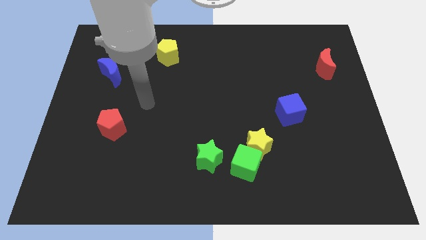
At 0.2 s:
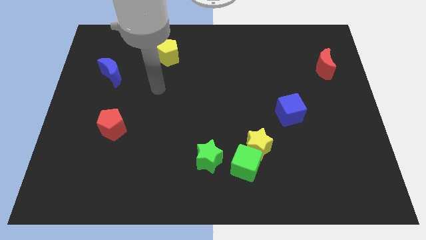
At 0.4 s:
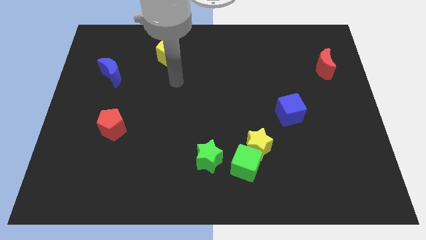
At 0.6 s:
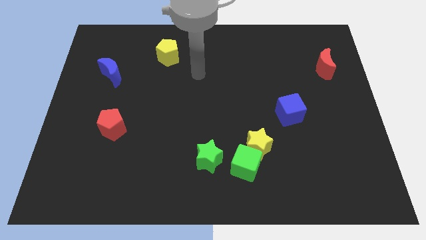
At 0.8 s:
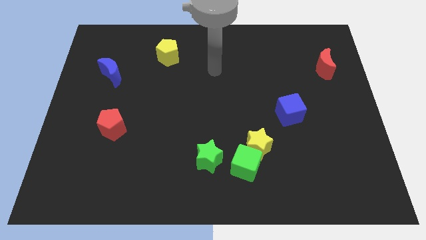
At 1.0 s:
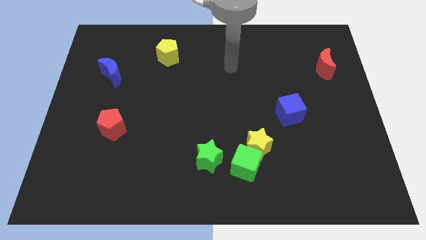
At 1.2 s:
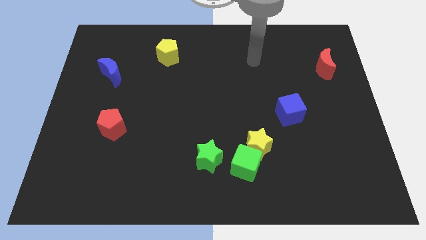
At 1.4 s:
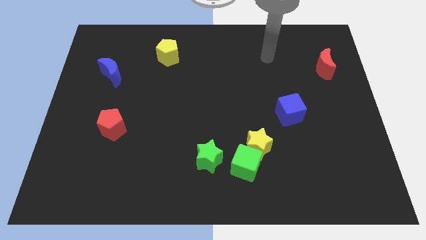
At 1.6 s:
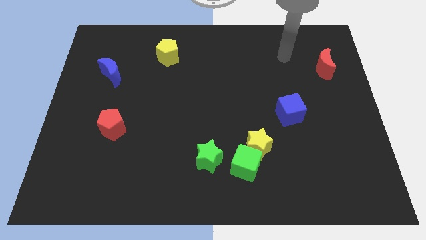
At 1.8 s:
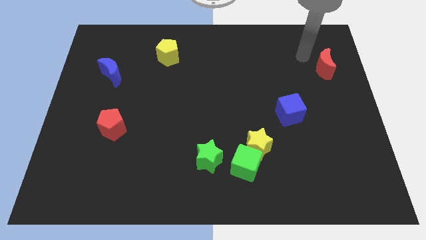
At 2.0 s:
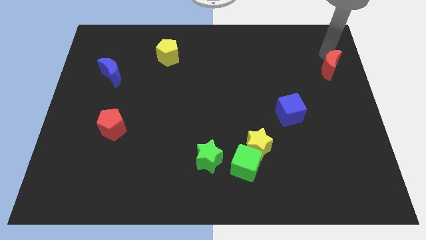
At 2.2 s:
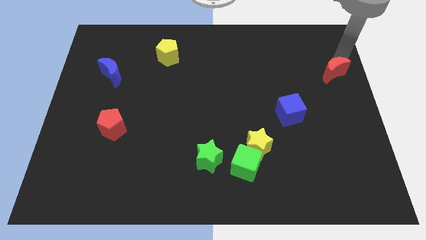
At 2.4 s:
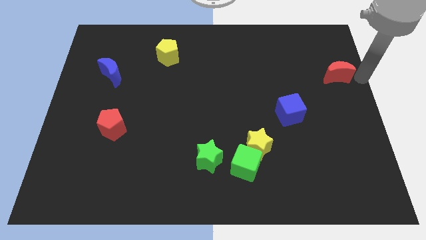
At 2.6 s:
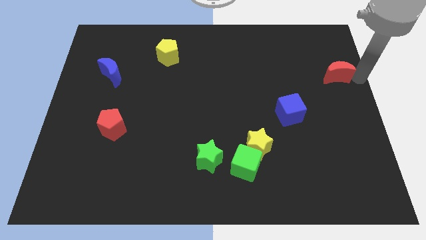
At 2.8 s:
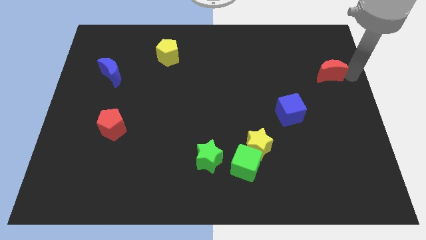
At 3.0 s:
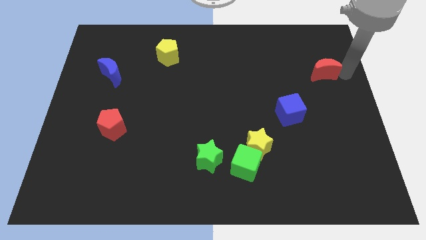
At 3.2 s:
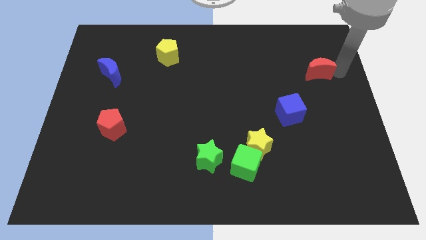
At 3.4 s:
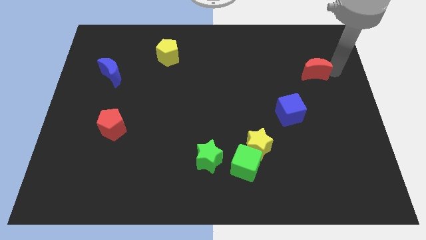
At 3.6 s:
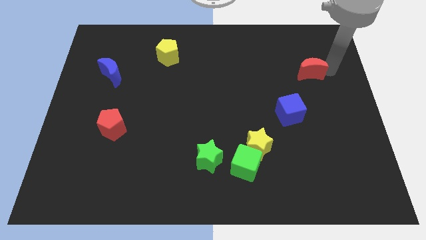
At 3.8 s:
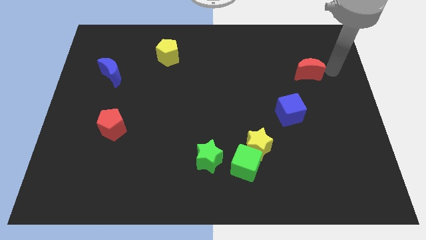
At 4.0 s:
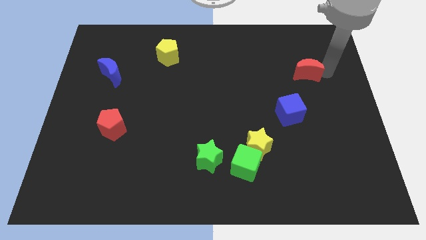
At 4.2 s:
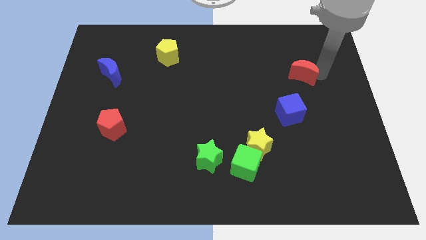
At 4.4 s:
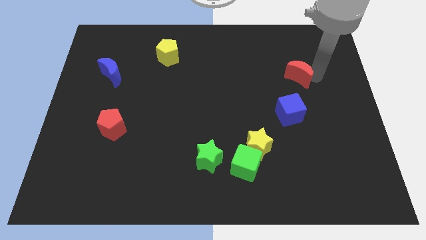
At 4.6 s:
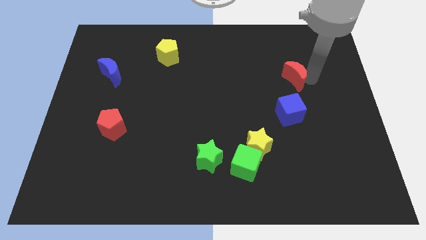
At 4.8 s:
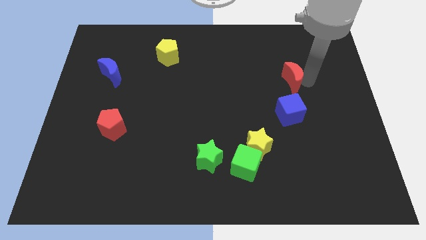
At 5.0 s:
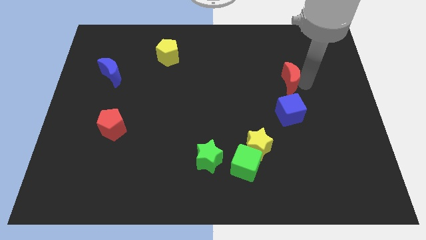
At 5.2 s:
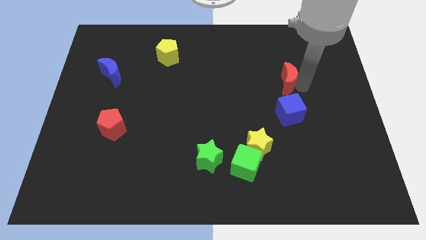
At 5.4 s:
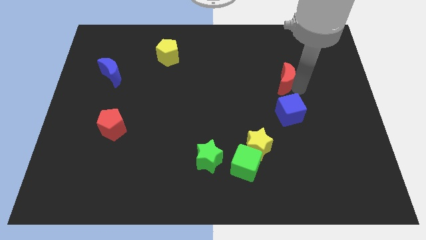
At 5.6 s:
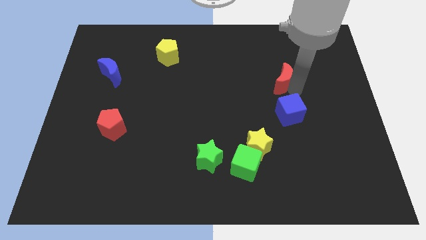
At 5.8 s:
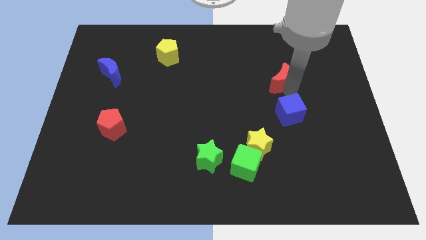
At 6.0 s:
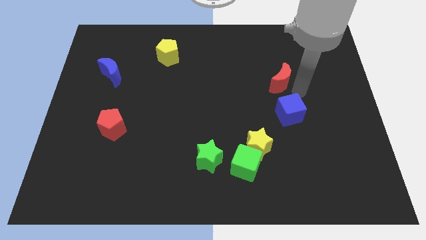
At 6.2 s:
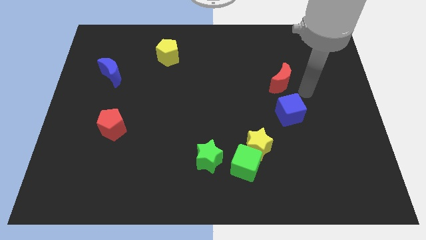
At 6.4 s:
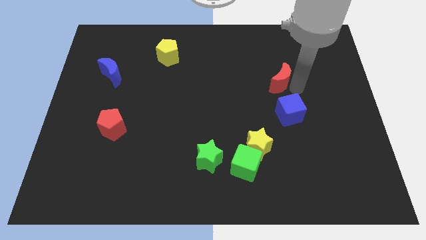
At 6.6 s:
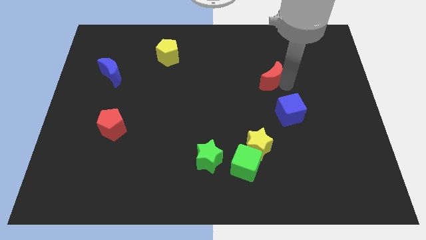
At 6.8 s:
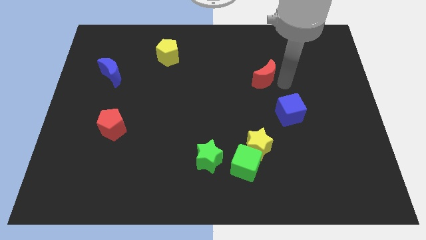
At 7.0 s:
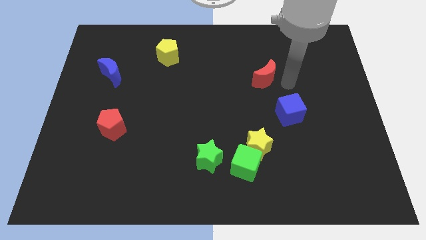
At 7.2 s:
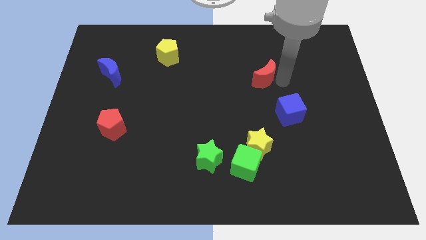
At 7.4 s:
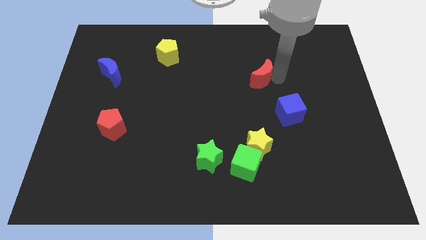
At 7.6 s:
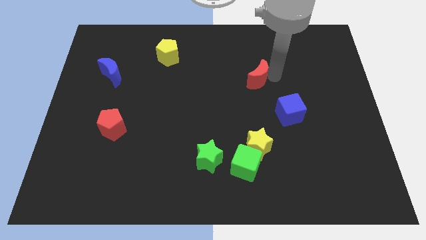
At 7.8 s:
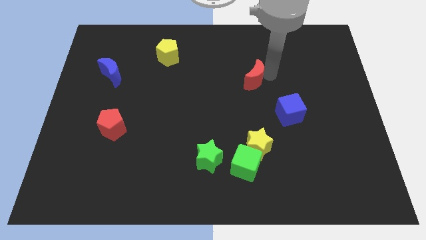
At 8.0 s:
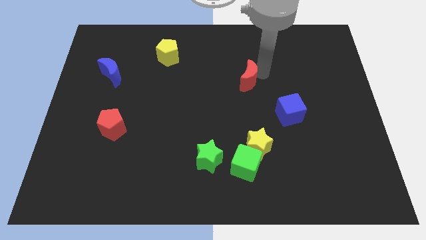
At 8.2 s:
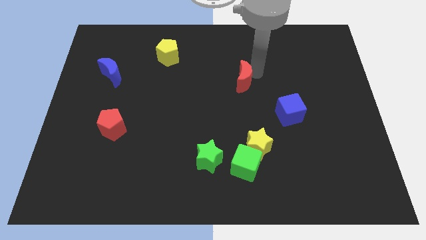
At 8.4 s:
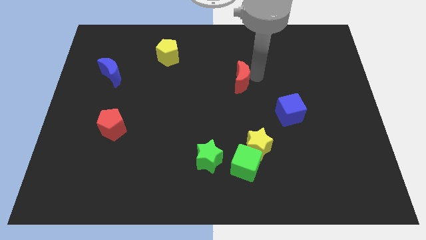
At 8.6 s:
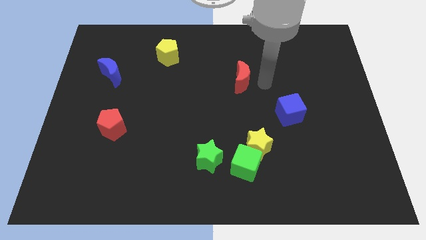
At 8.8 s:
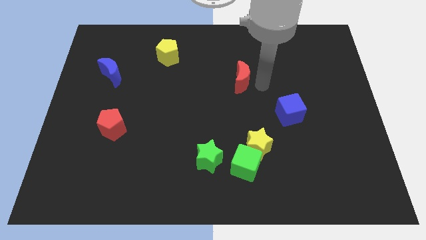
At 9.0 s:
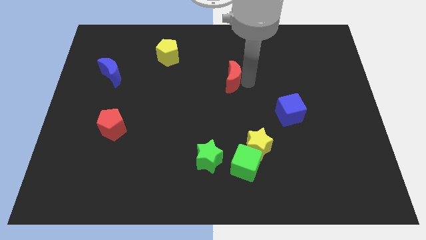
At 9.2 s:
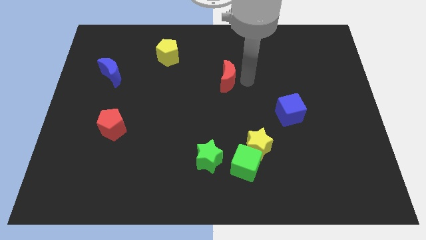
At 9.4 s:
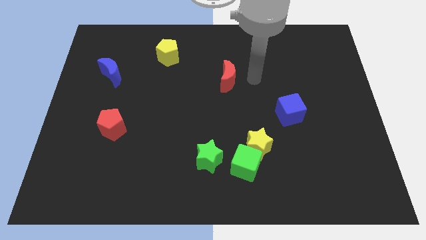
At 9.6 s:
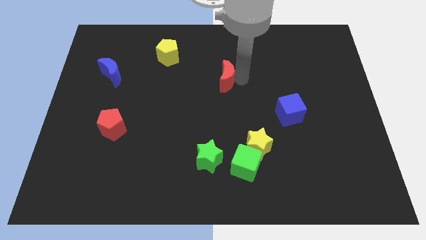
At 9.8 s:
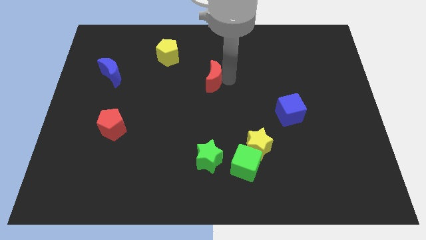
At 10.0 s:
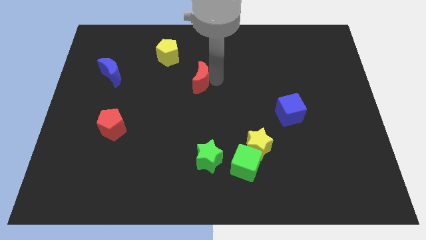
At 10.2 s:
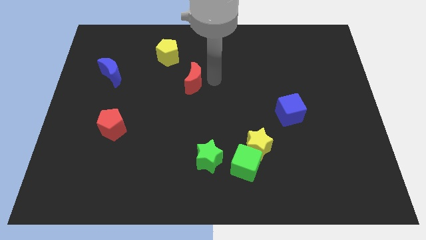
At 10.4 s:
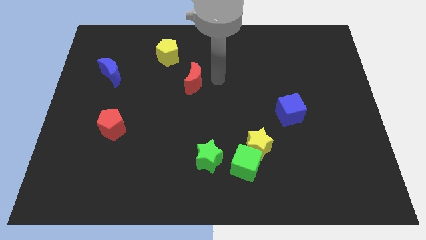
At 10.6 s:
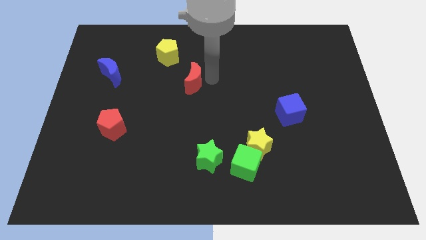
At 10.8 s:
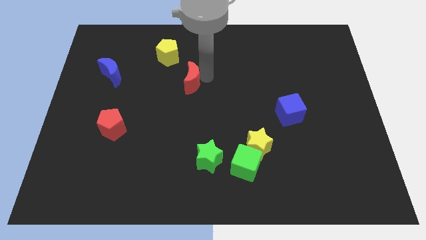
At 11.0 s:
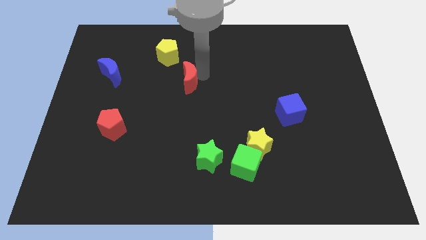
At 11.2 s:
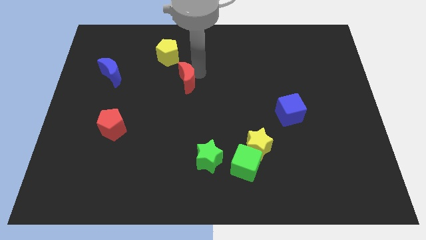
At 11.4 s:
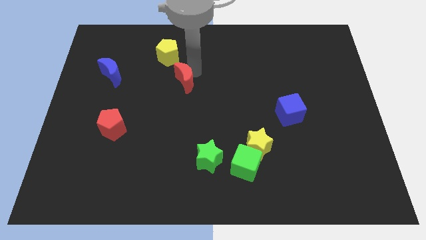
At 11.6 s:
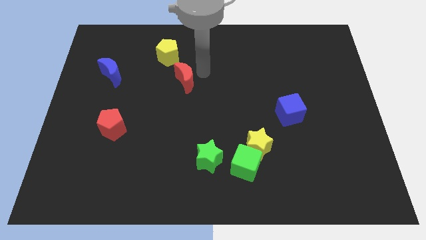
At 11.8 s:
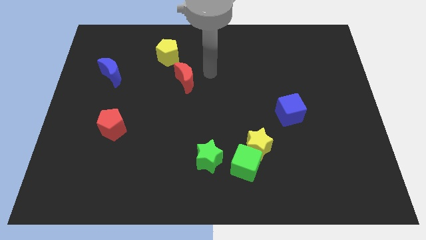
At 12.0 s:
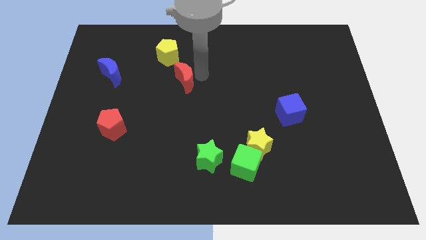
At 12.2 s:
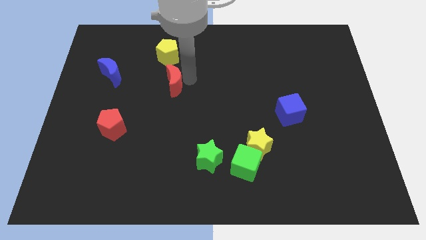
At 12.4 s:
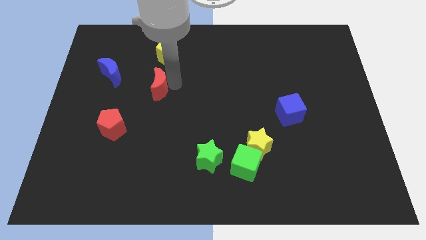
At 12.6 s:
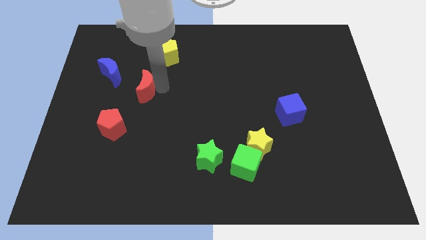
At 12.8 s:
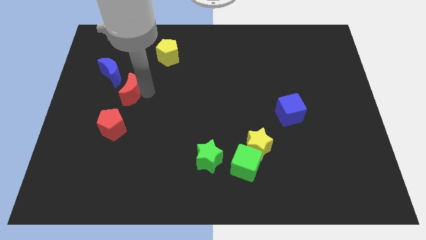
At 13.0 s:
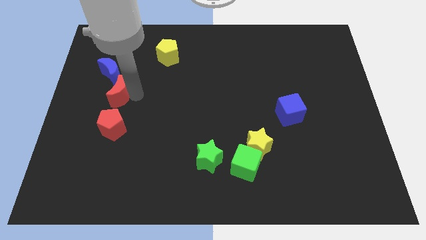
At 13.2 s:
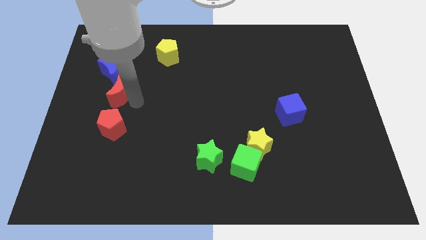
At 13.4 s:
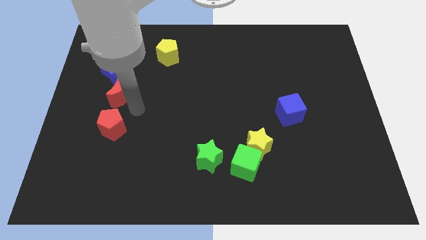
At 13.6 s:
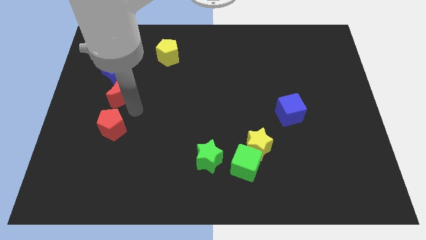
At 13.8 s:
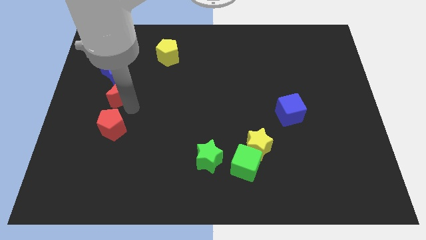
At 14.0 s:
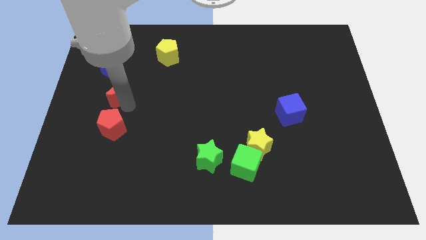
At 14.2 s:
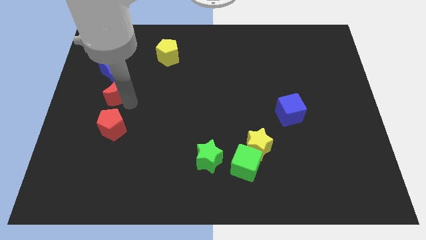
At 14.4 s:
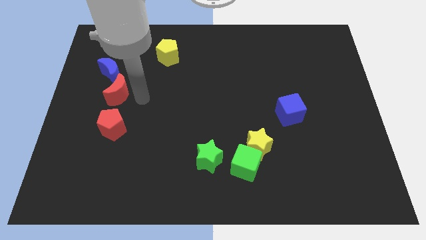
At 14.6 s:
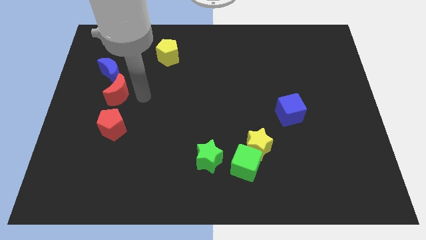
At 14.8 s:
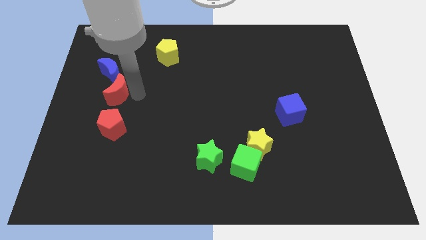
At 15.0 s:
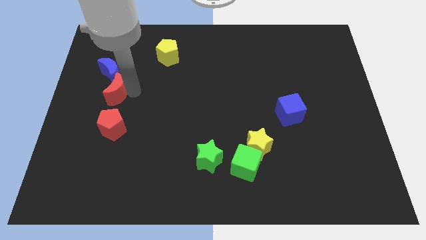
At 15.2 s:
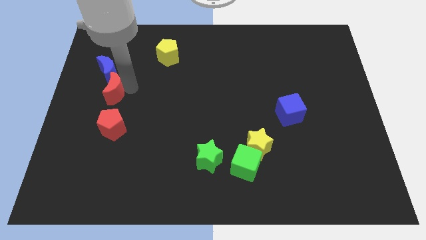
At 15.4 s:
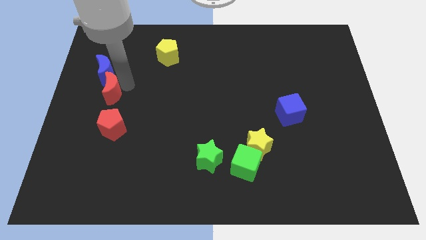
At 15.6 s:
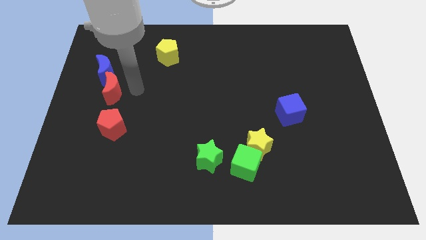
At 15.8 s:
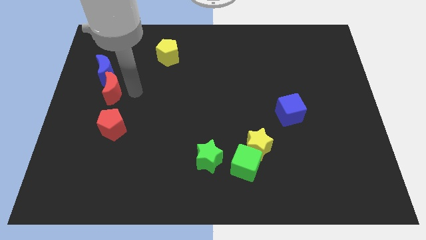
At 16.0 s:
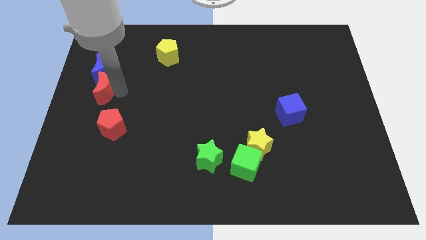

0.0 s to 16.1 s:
move the red moon to the center left
